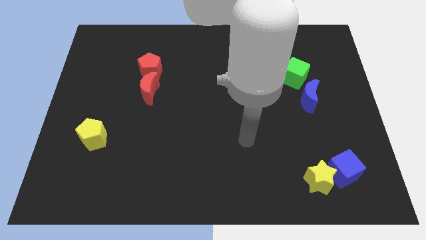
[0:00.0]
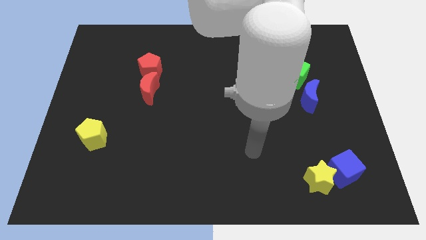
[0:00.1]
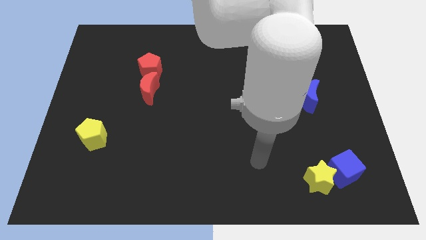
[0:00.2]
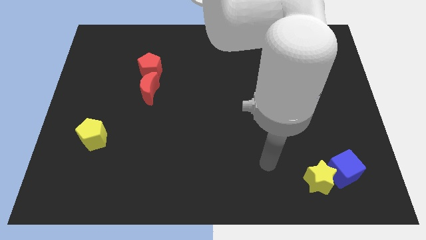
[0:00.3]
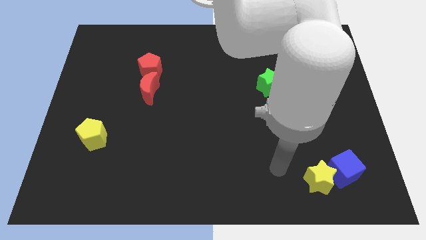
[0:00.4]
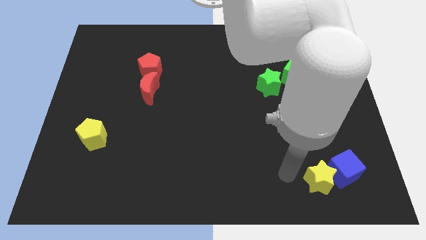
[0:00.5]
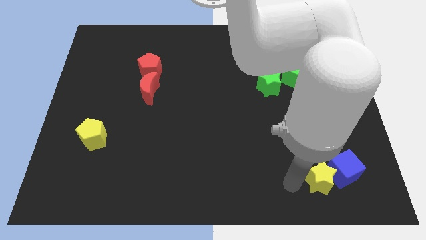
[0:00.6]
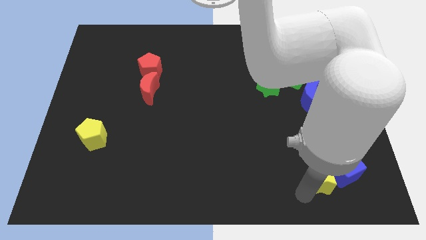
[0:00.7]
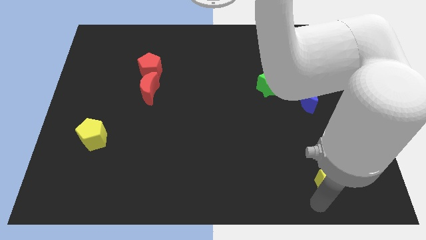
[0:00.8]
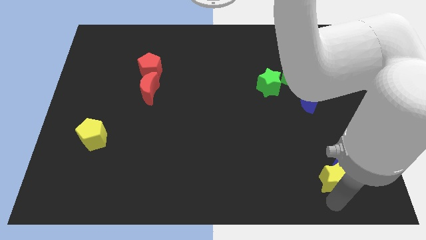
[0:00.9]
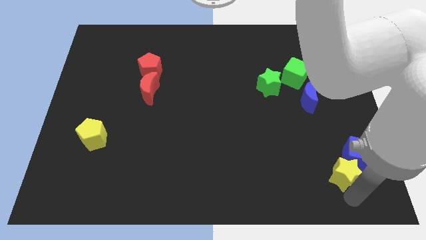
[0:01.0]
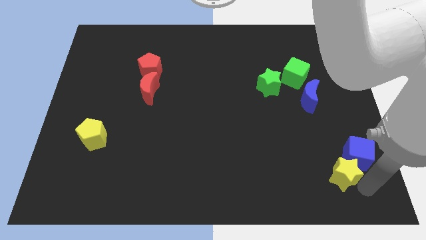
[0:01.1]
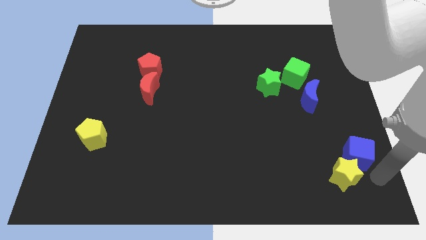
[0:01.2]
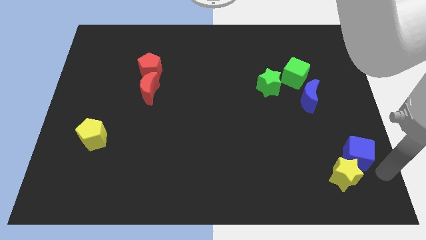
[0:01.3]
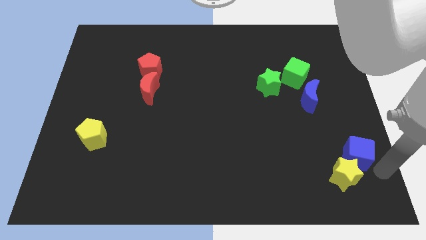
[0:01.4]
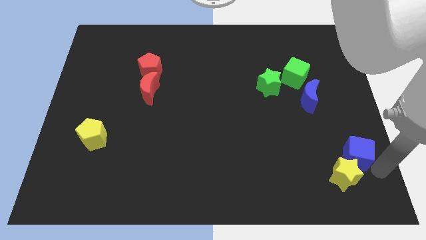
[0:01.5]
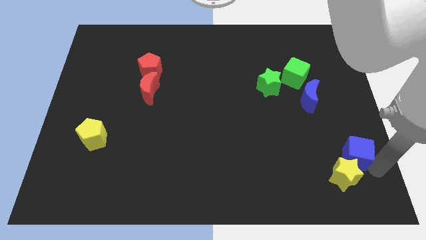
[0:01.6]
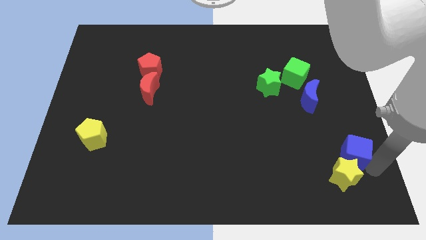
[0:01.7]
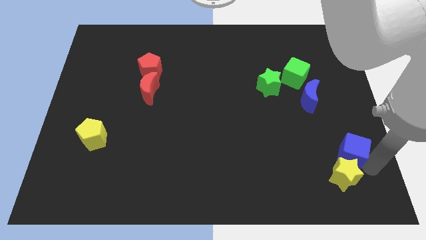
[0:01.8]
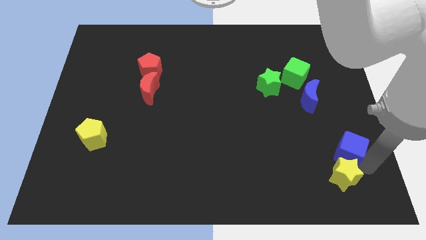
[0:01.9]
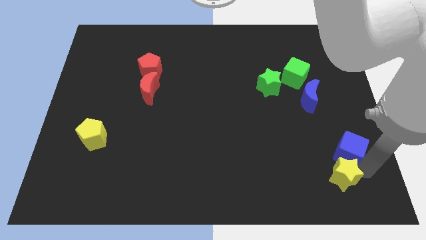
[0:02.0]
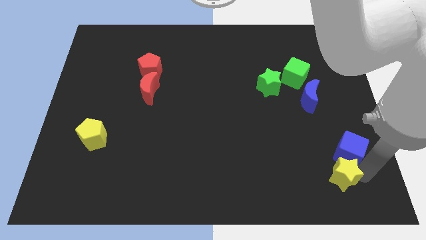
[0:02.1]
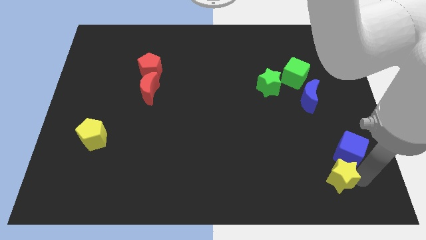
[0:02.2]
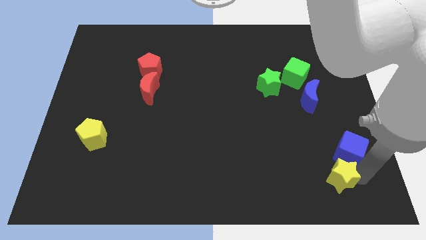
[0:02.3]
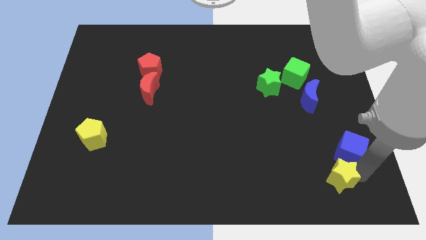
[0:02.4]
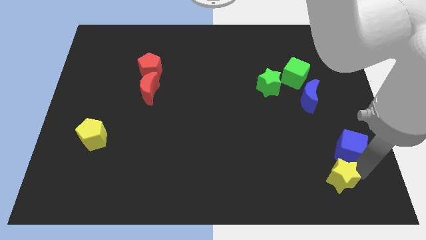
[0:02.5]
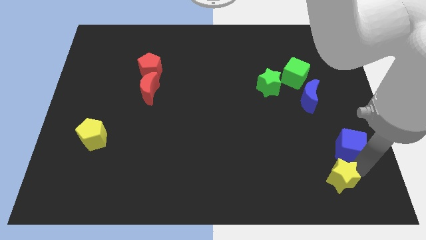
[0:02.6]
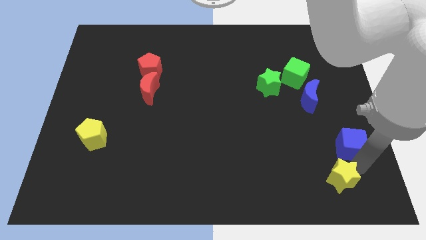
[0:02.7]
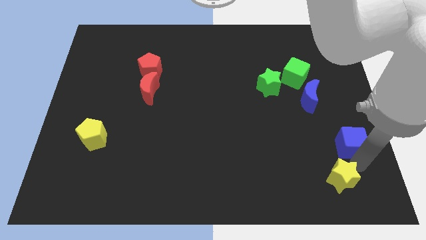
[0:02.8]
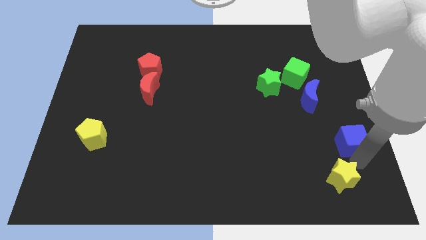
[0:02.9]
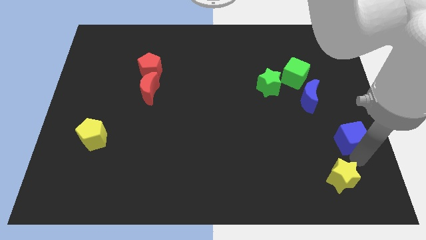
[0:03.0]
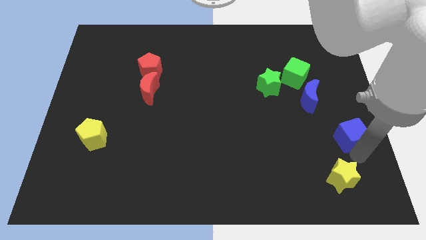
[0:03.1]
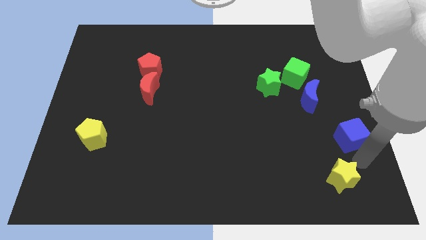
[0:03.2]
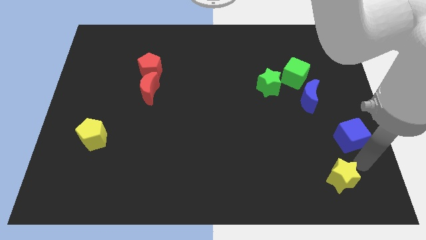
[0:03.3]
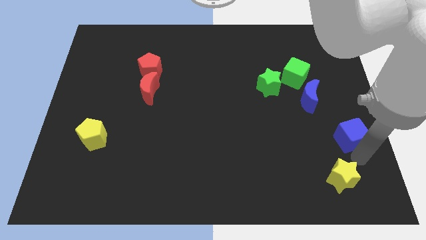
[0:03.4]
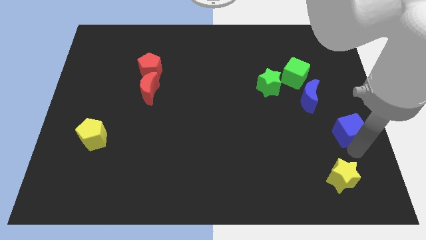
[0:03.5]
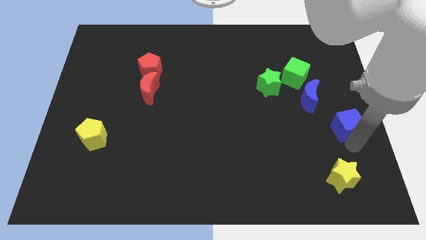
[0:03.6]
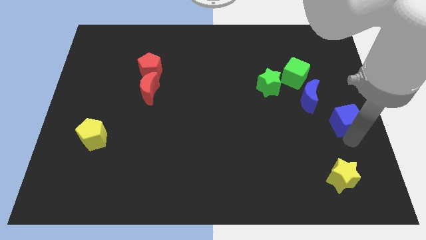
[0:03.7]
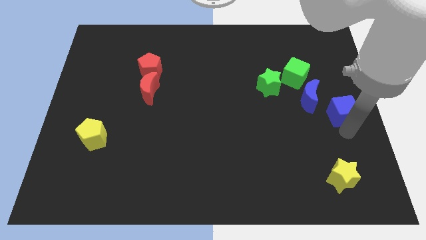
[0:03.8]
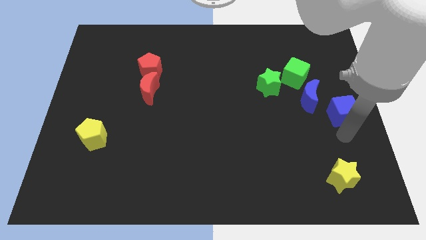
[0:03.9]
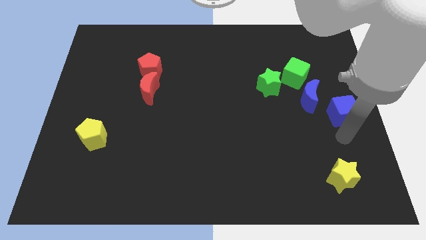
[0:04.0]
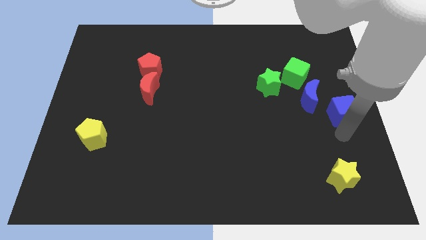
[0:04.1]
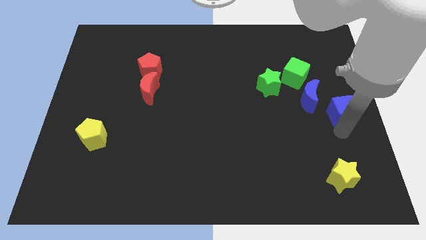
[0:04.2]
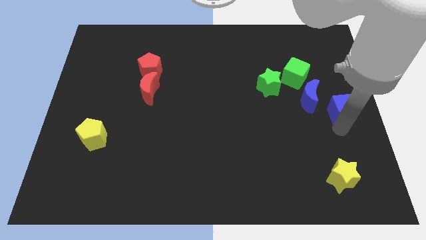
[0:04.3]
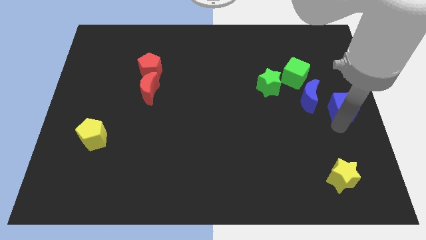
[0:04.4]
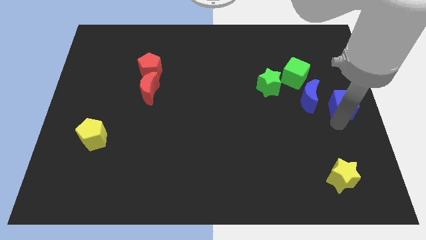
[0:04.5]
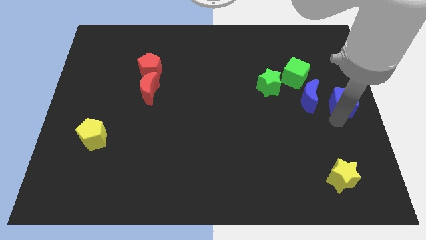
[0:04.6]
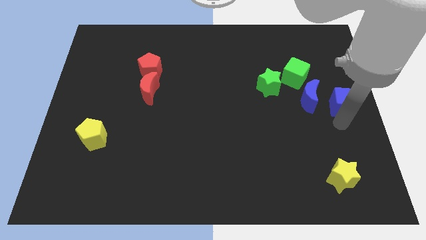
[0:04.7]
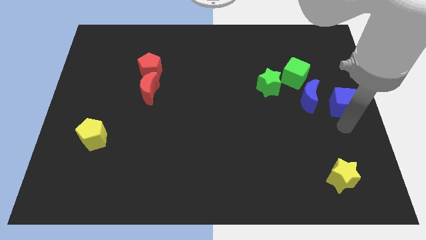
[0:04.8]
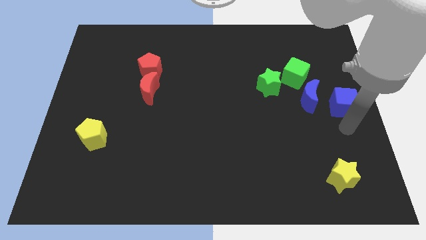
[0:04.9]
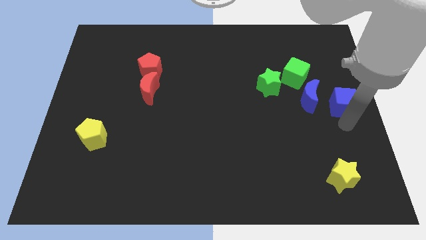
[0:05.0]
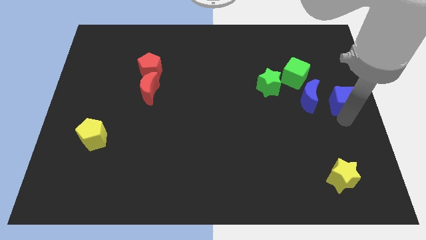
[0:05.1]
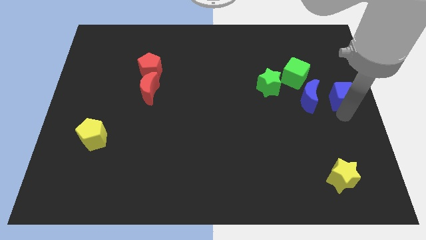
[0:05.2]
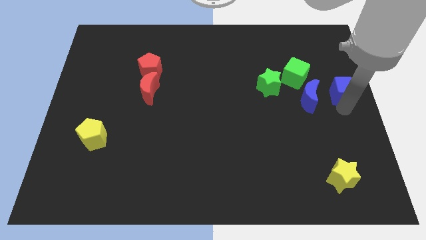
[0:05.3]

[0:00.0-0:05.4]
push the blue cube upwards

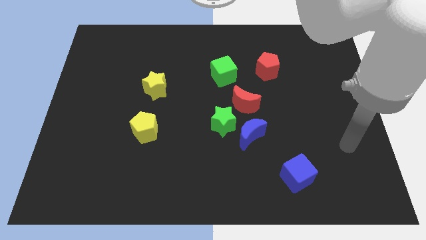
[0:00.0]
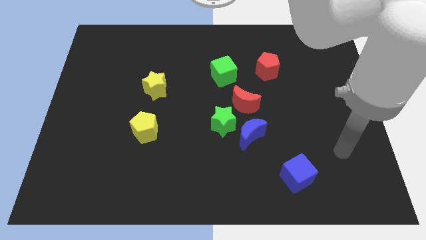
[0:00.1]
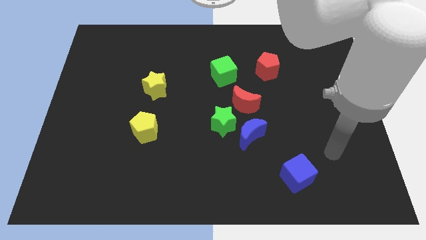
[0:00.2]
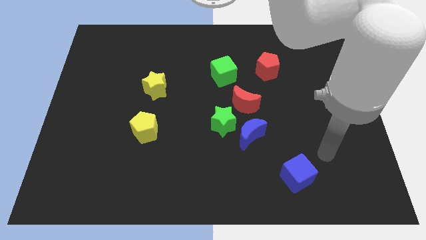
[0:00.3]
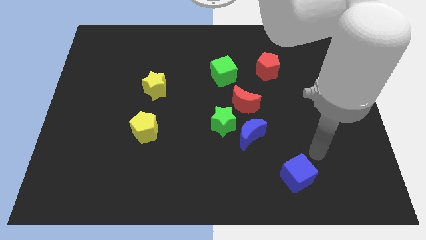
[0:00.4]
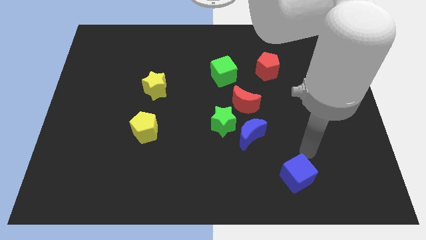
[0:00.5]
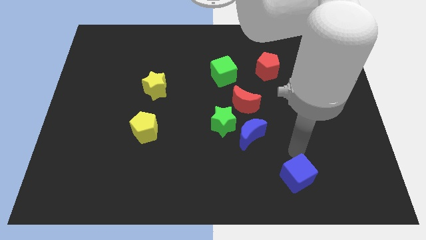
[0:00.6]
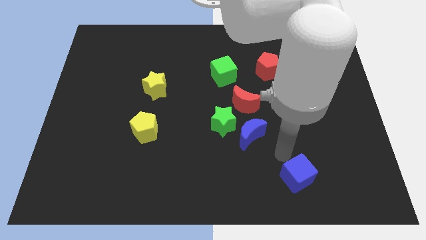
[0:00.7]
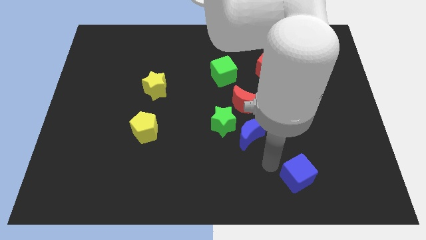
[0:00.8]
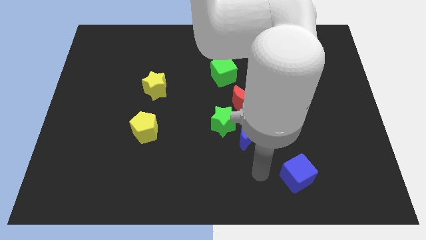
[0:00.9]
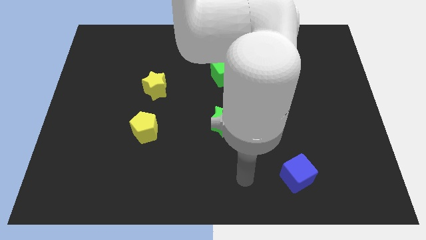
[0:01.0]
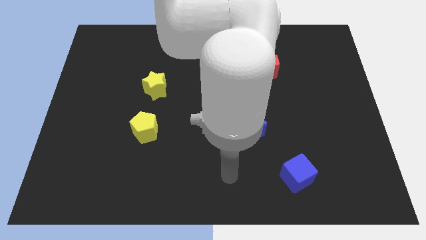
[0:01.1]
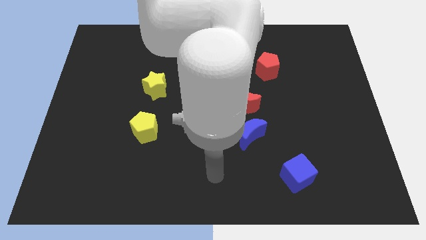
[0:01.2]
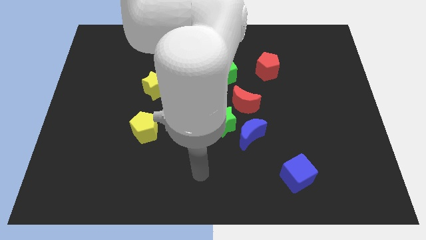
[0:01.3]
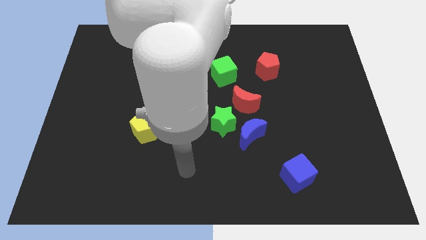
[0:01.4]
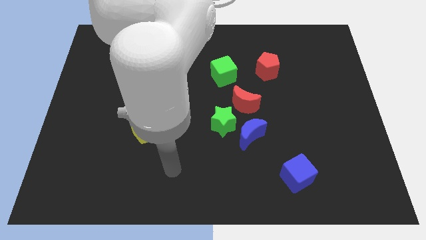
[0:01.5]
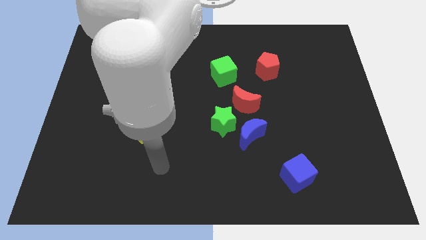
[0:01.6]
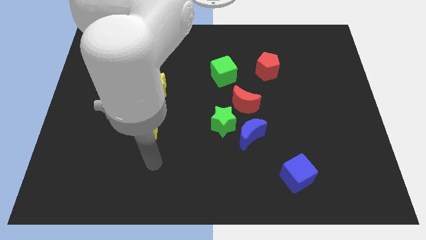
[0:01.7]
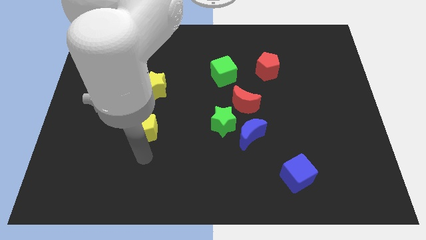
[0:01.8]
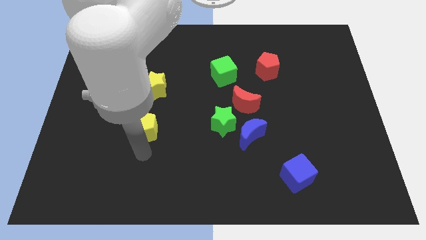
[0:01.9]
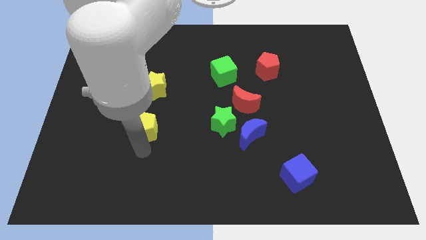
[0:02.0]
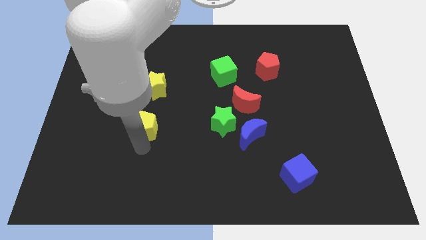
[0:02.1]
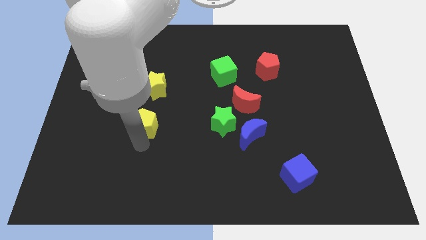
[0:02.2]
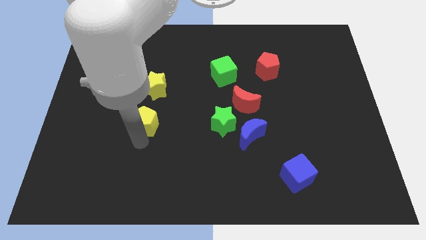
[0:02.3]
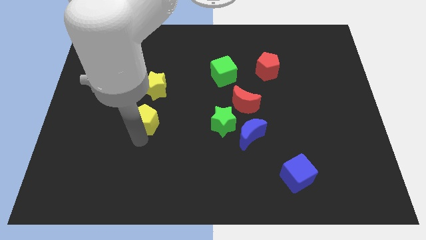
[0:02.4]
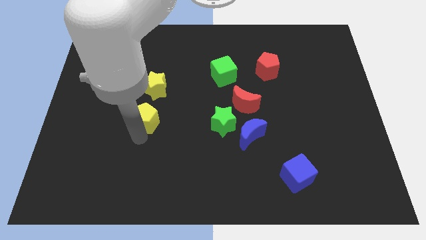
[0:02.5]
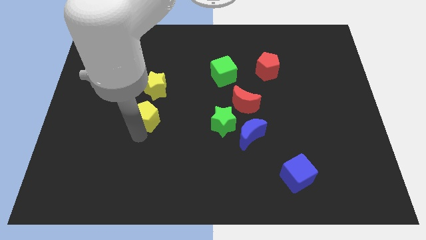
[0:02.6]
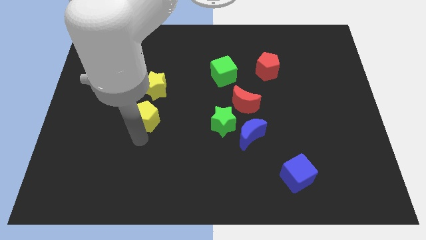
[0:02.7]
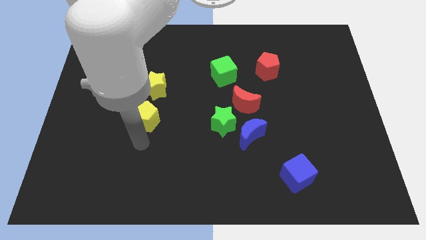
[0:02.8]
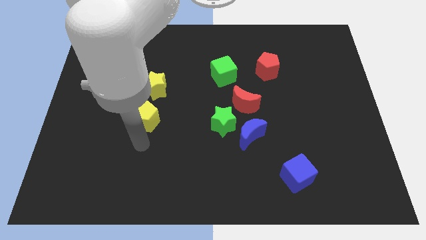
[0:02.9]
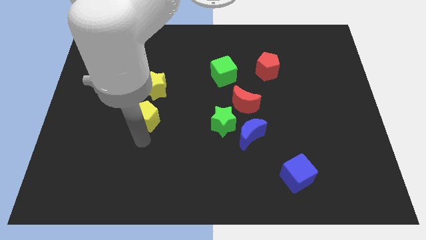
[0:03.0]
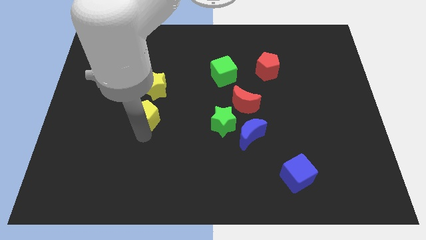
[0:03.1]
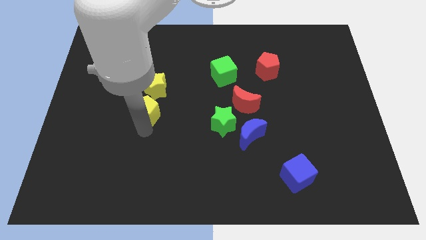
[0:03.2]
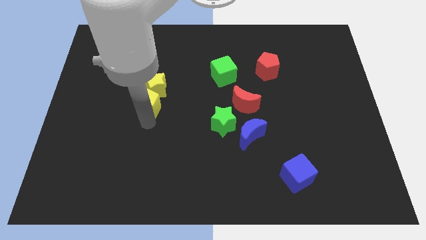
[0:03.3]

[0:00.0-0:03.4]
slightly slide the yellow pentagon upwards
